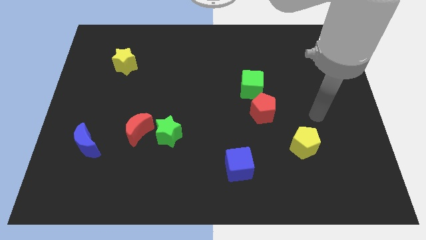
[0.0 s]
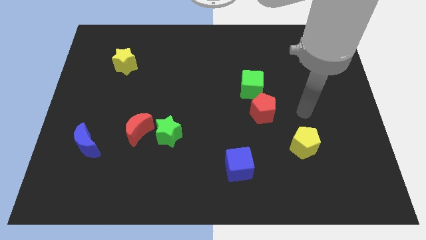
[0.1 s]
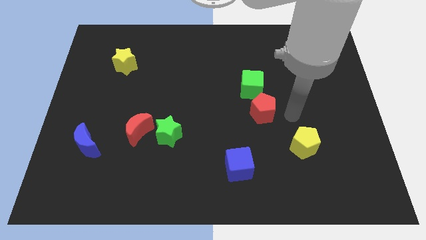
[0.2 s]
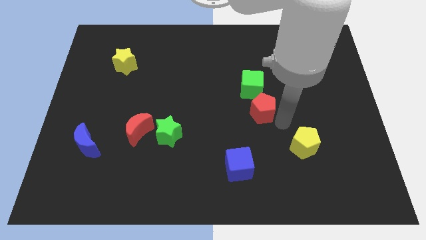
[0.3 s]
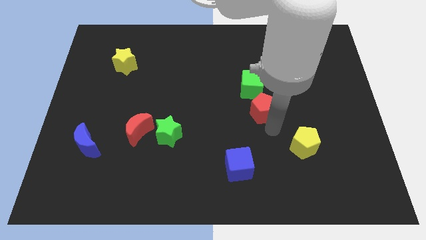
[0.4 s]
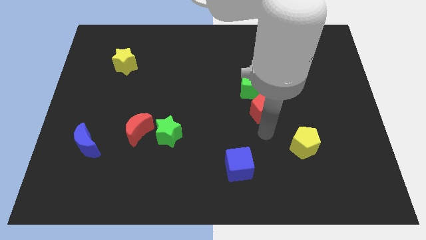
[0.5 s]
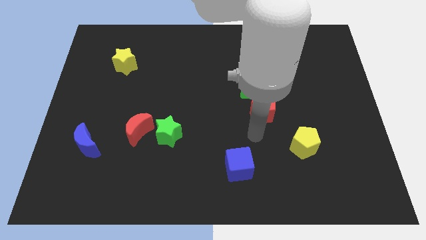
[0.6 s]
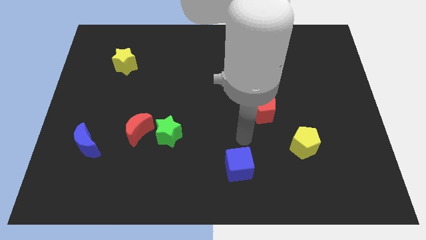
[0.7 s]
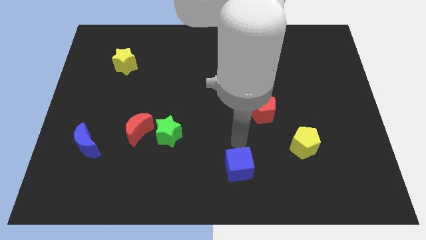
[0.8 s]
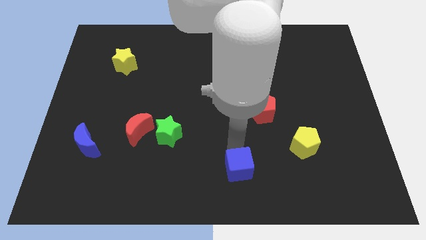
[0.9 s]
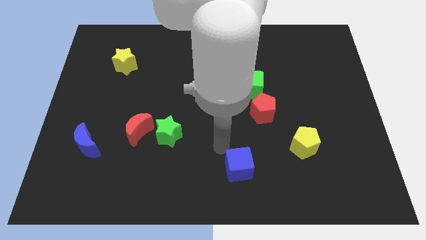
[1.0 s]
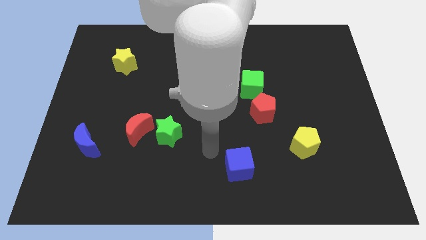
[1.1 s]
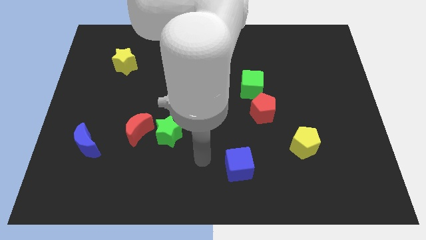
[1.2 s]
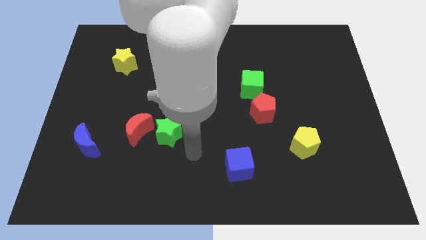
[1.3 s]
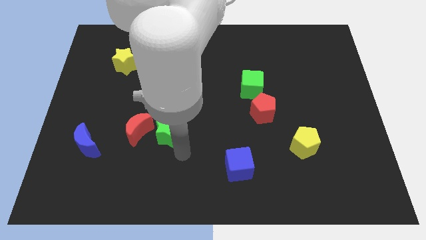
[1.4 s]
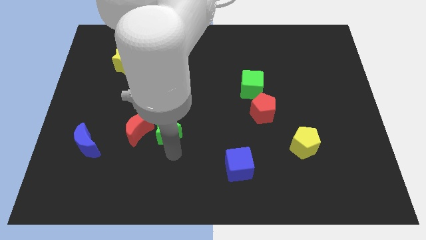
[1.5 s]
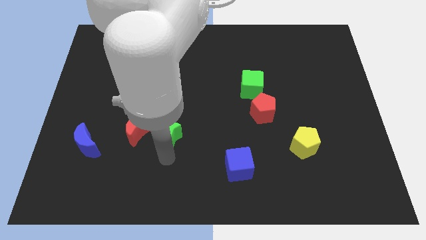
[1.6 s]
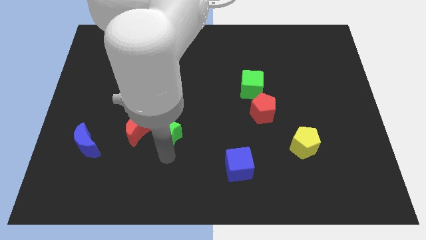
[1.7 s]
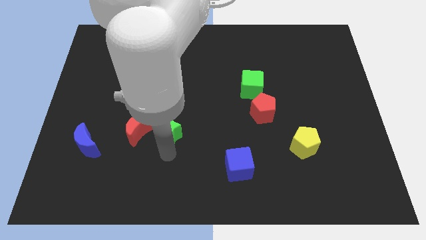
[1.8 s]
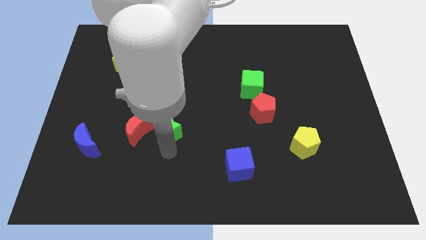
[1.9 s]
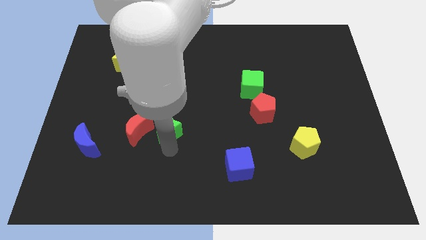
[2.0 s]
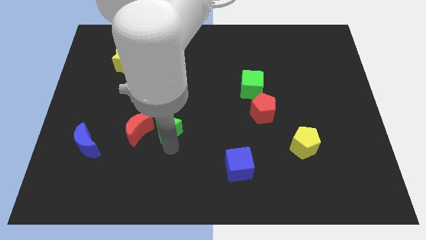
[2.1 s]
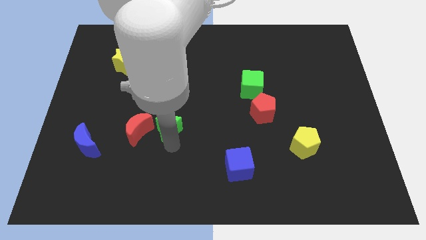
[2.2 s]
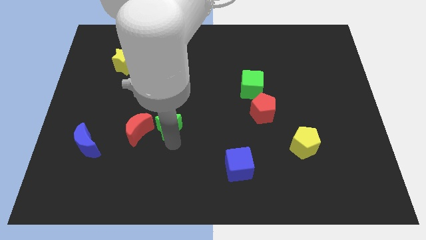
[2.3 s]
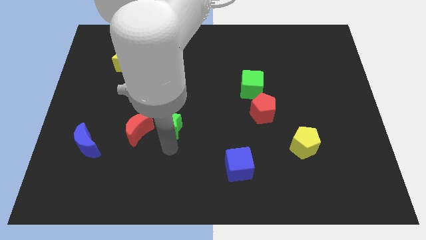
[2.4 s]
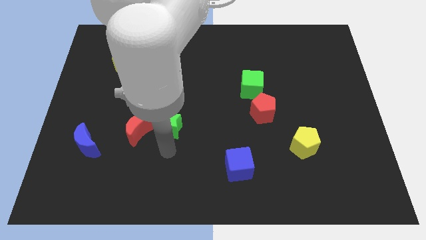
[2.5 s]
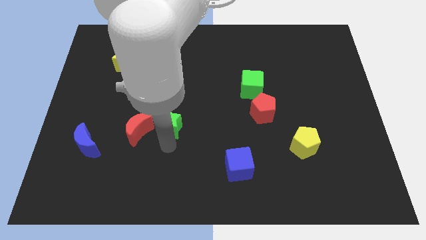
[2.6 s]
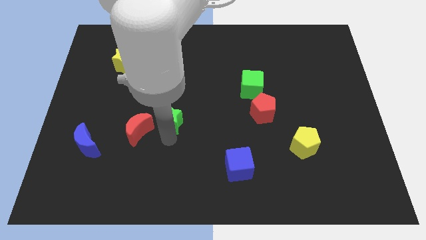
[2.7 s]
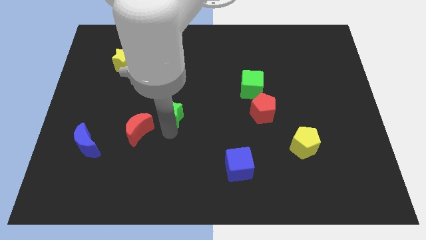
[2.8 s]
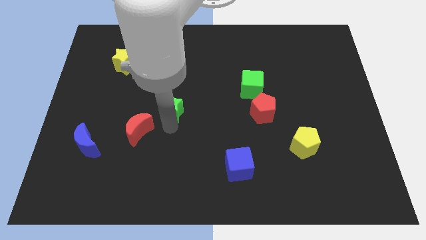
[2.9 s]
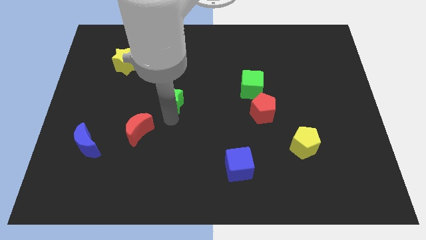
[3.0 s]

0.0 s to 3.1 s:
push the green star slightly upwards

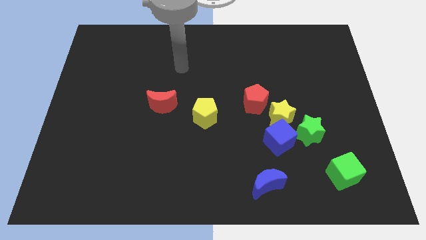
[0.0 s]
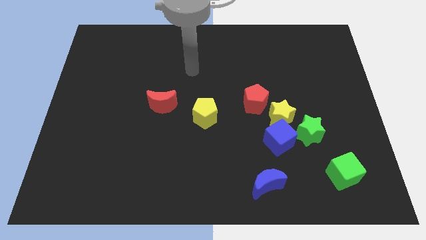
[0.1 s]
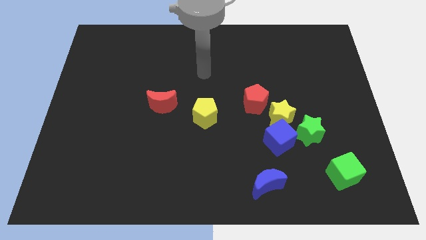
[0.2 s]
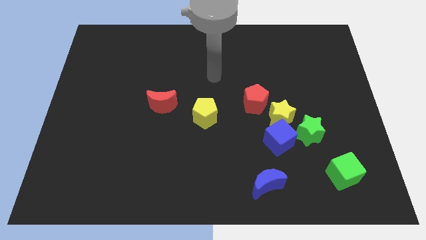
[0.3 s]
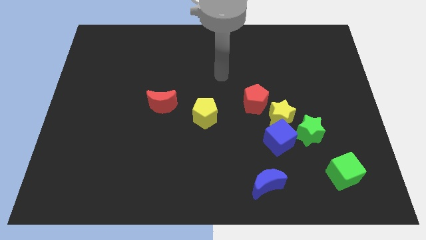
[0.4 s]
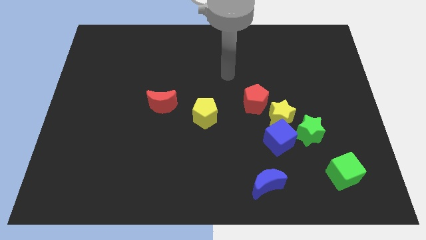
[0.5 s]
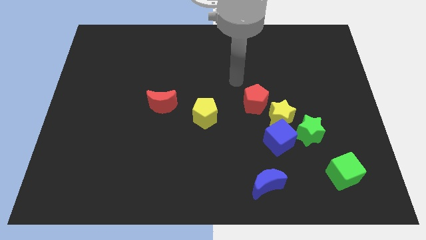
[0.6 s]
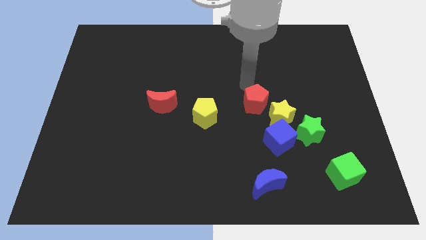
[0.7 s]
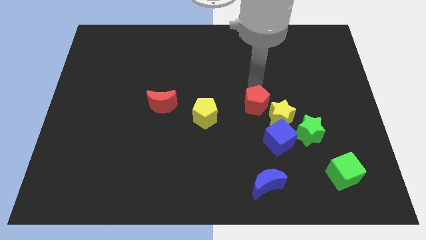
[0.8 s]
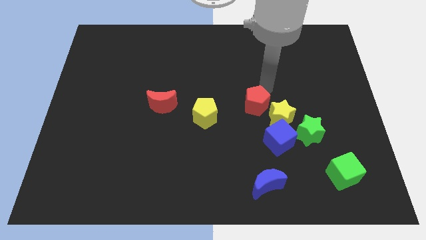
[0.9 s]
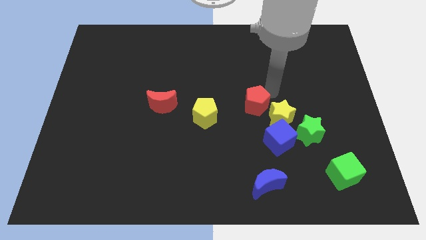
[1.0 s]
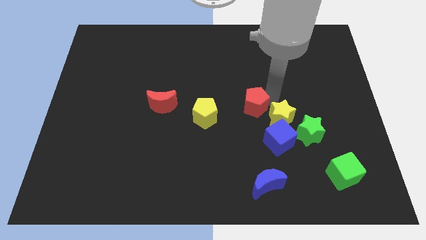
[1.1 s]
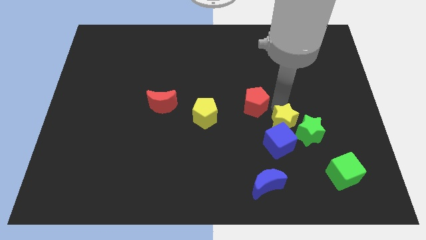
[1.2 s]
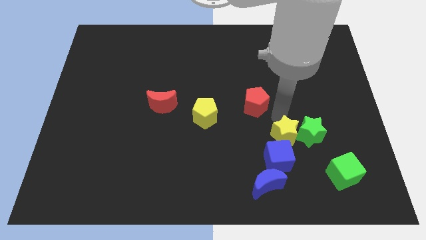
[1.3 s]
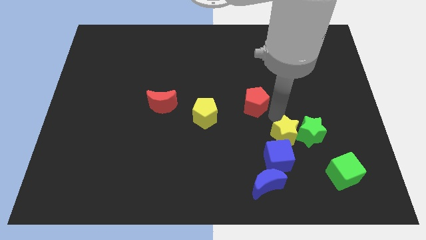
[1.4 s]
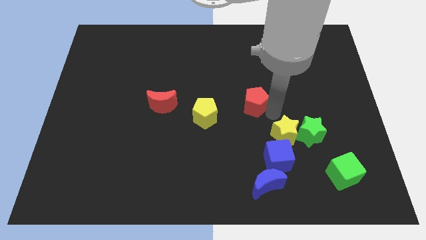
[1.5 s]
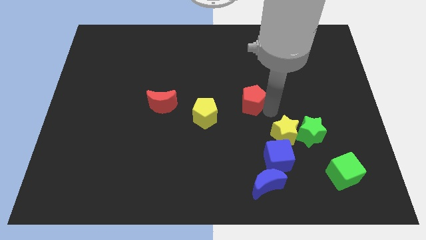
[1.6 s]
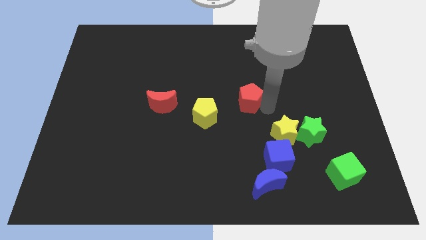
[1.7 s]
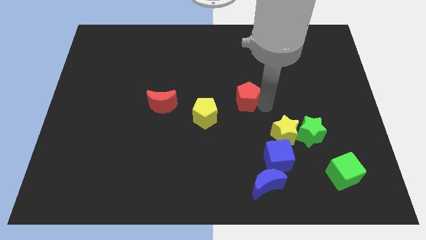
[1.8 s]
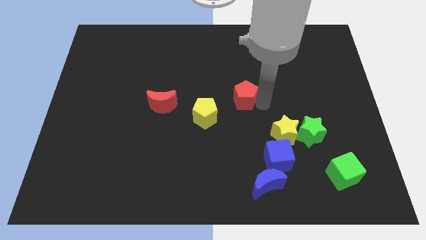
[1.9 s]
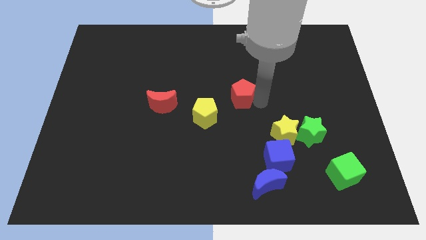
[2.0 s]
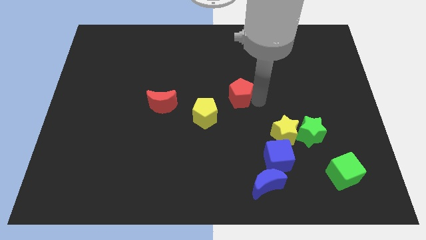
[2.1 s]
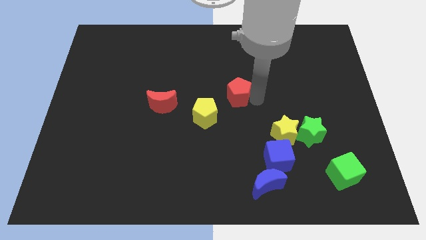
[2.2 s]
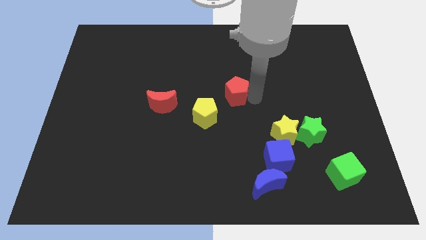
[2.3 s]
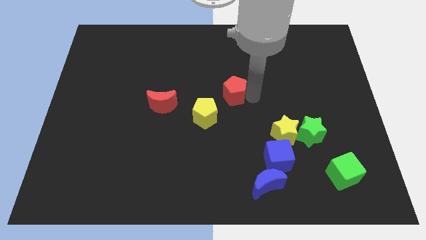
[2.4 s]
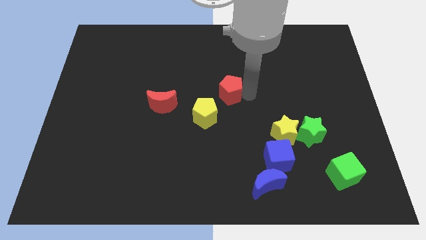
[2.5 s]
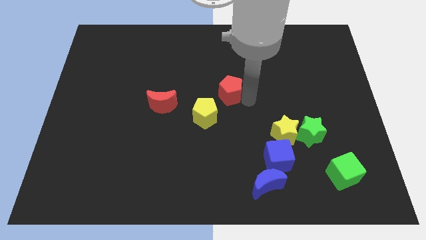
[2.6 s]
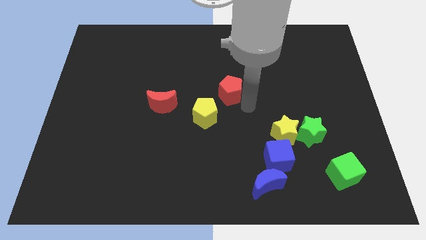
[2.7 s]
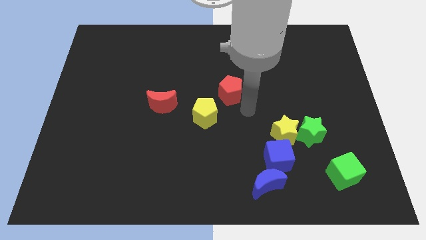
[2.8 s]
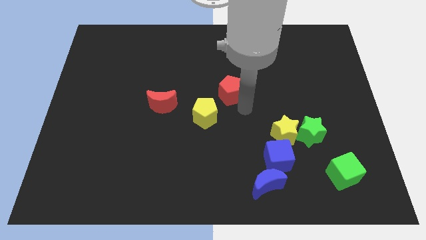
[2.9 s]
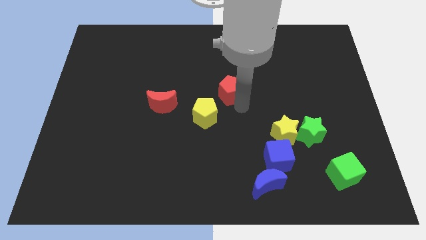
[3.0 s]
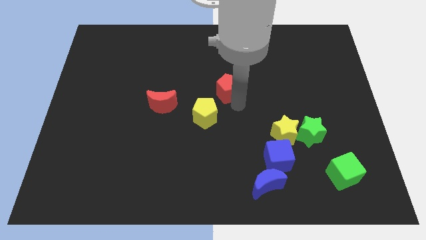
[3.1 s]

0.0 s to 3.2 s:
push the red pentagon a little upwards and to the left

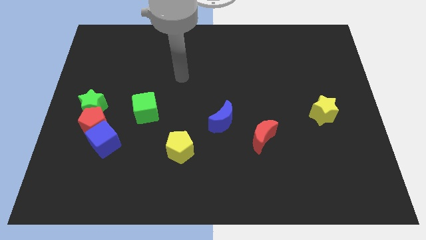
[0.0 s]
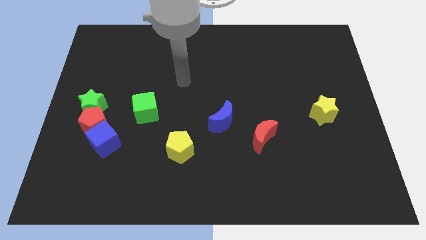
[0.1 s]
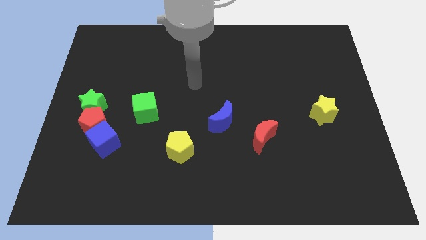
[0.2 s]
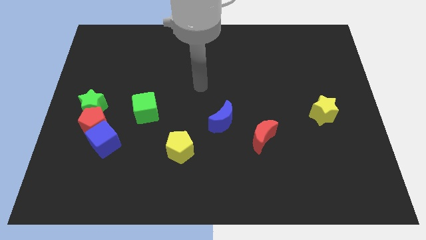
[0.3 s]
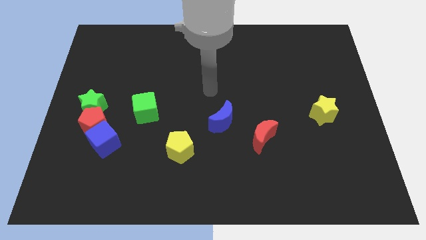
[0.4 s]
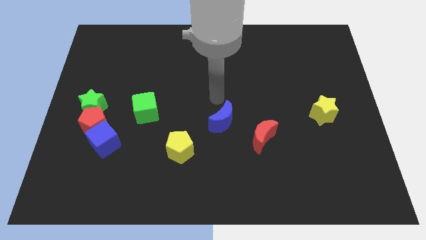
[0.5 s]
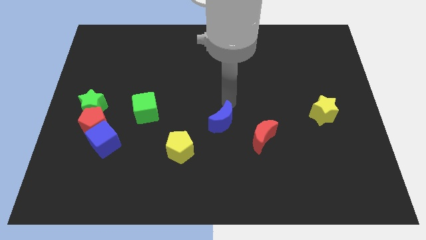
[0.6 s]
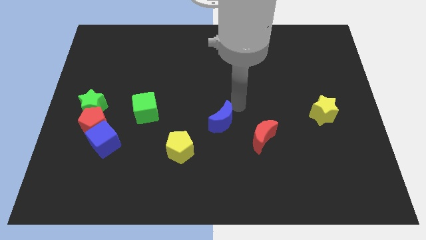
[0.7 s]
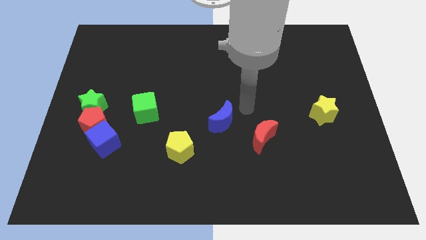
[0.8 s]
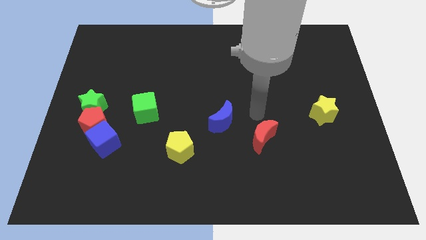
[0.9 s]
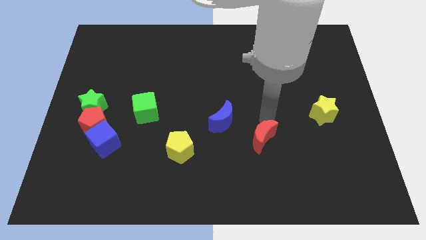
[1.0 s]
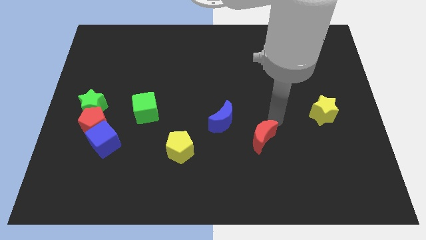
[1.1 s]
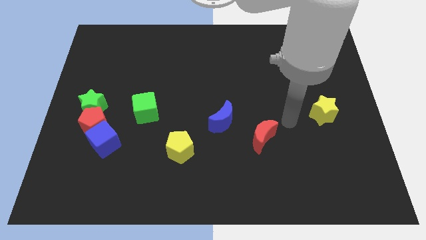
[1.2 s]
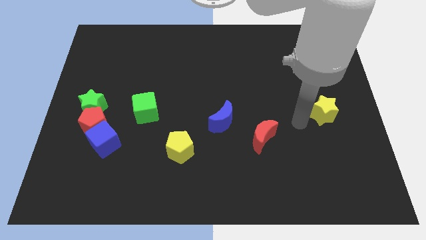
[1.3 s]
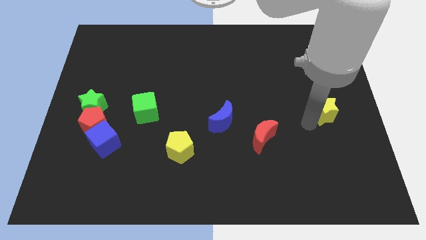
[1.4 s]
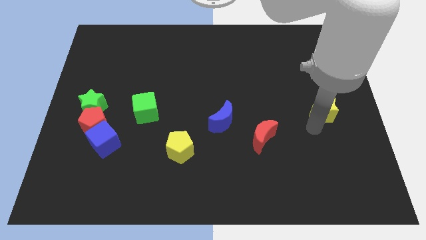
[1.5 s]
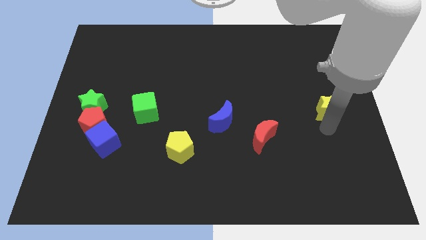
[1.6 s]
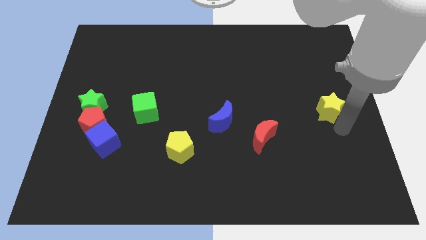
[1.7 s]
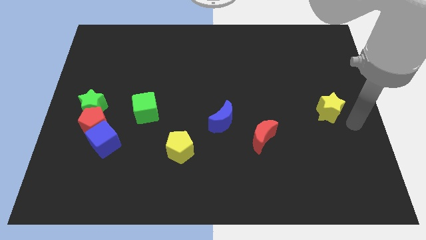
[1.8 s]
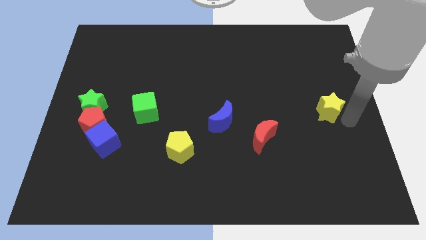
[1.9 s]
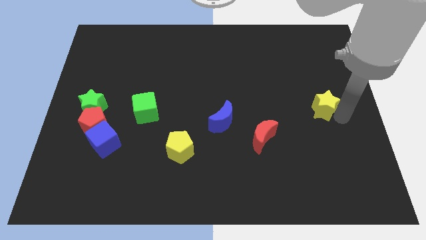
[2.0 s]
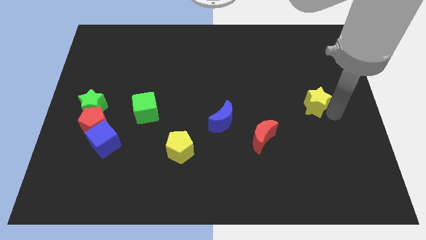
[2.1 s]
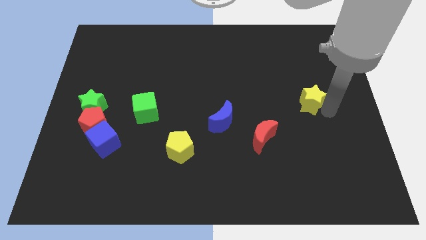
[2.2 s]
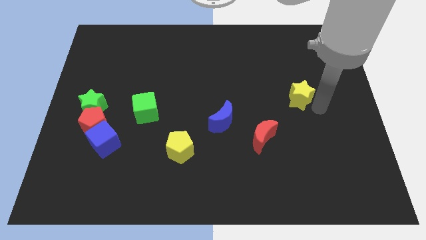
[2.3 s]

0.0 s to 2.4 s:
slightly slide the yellow star upwards and to the left diagonally
